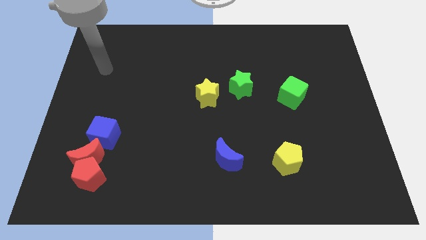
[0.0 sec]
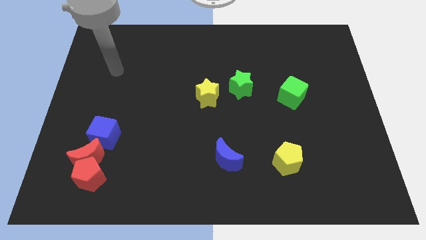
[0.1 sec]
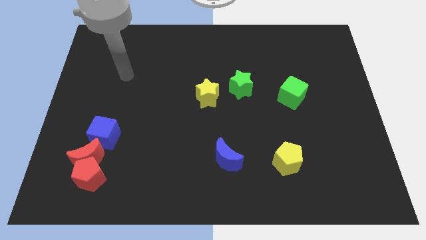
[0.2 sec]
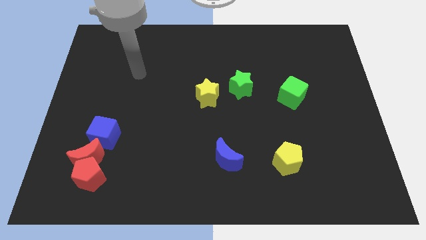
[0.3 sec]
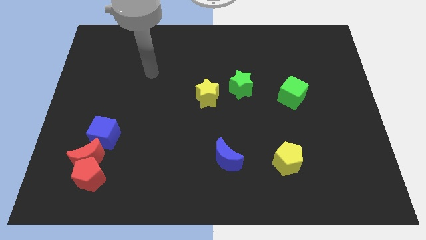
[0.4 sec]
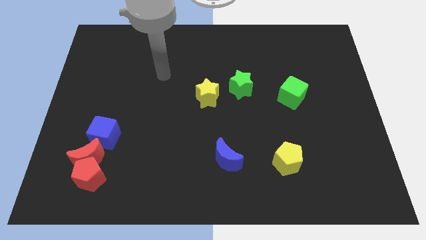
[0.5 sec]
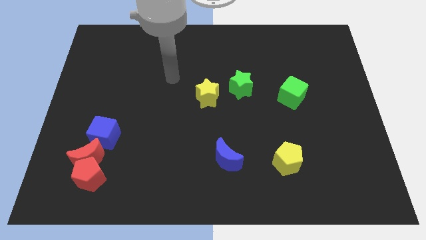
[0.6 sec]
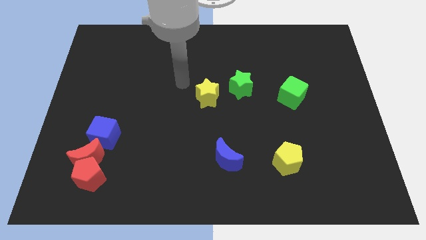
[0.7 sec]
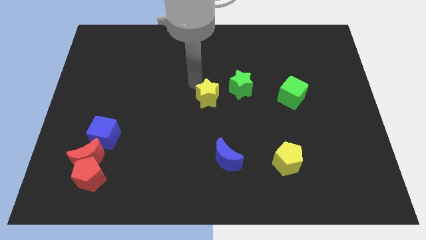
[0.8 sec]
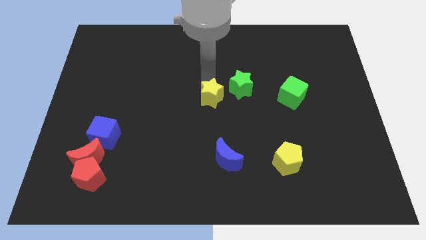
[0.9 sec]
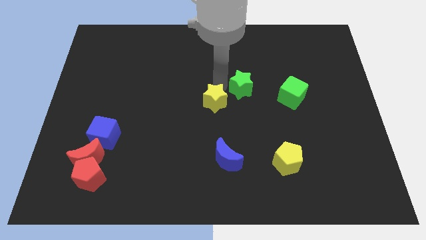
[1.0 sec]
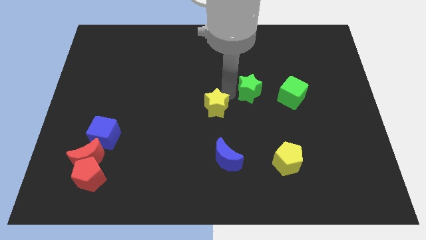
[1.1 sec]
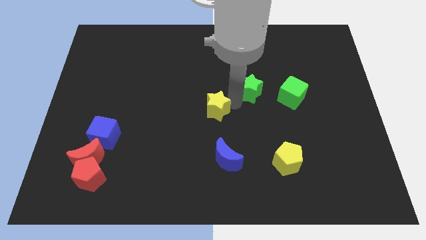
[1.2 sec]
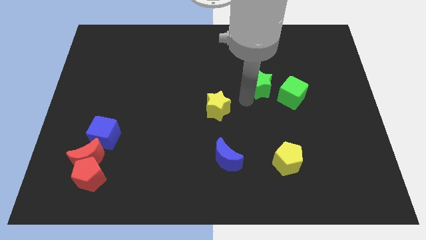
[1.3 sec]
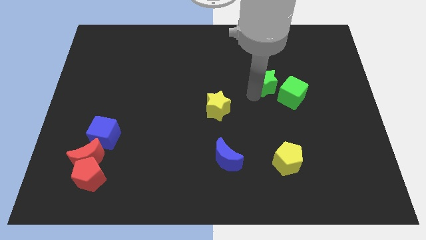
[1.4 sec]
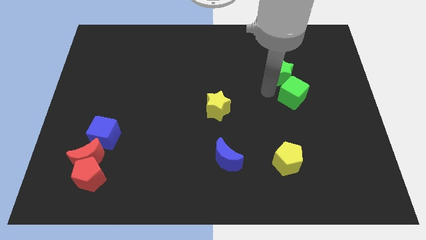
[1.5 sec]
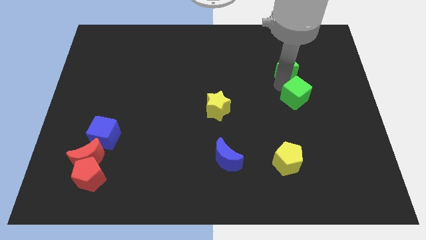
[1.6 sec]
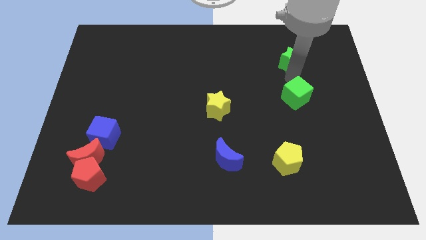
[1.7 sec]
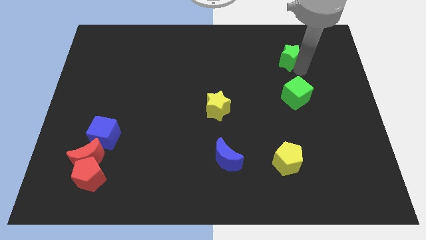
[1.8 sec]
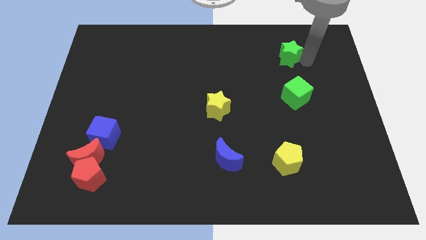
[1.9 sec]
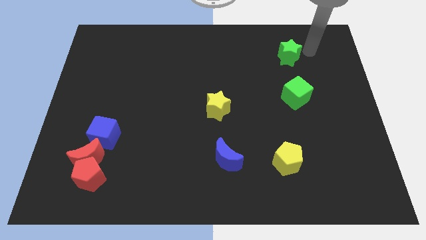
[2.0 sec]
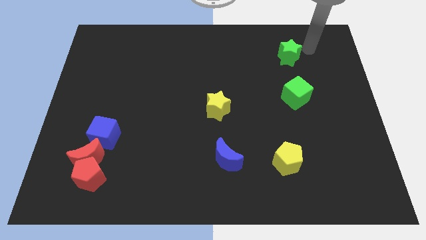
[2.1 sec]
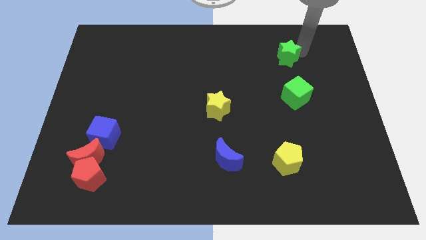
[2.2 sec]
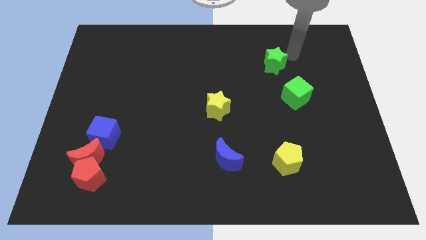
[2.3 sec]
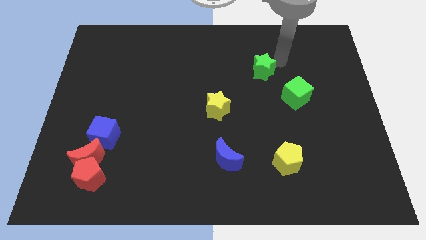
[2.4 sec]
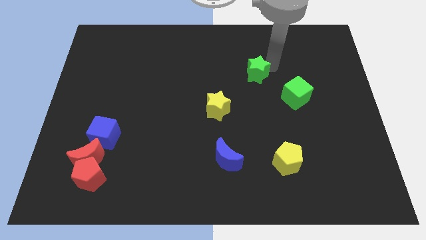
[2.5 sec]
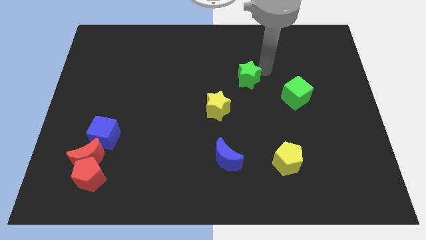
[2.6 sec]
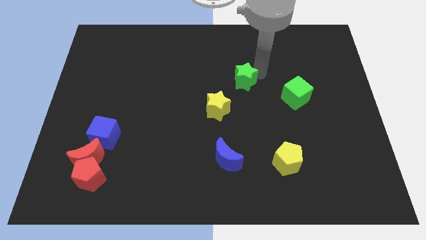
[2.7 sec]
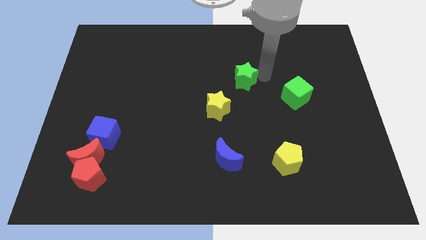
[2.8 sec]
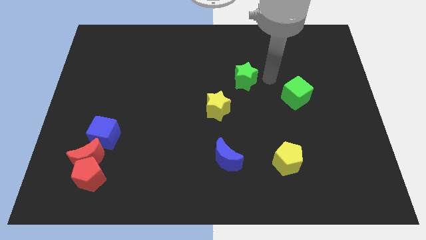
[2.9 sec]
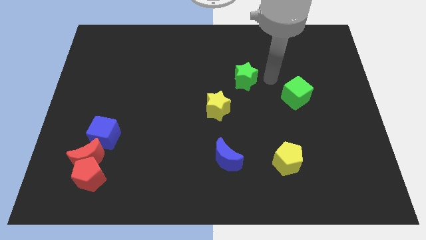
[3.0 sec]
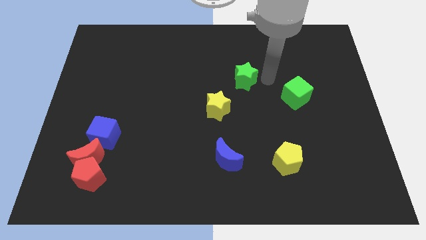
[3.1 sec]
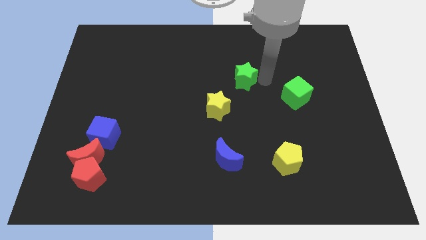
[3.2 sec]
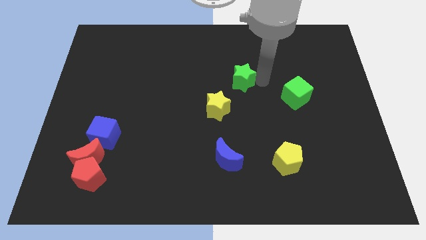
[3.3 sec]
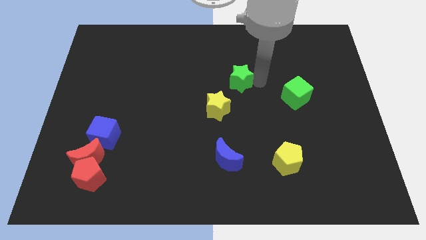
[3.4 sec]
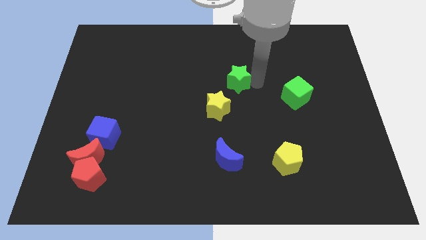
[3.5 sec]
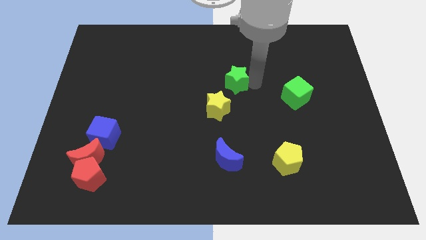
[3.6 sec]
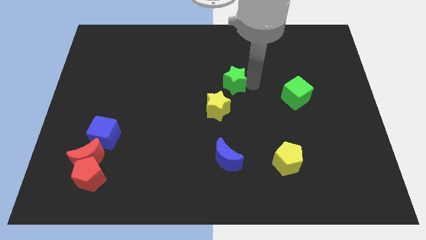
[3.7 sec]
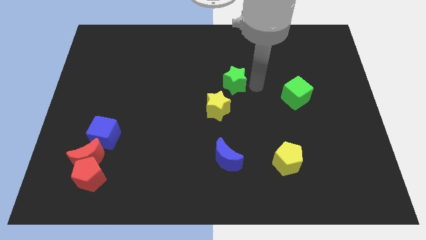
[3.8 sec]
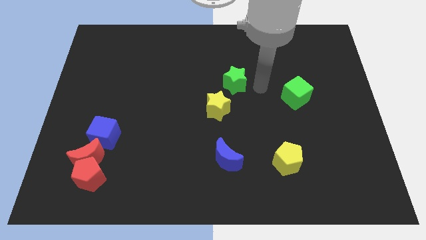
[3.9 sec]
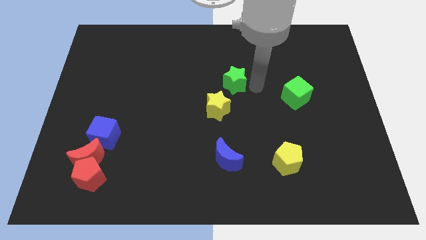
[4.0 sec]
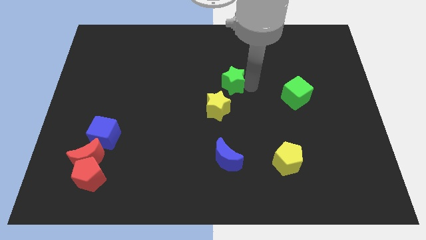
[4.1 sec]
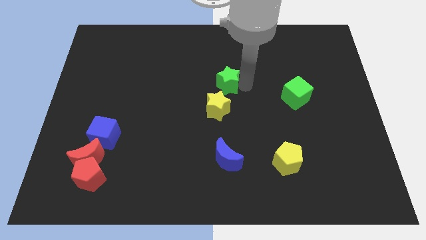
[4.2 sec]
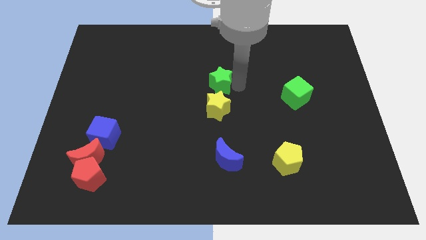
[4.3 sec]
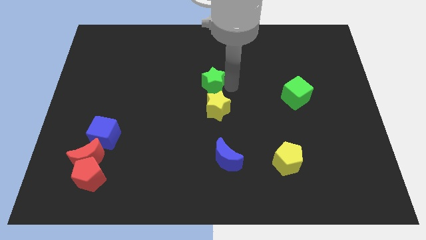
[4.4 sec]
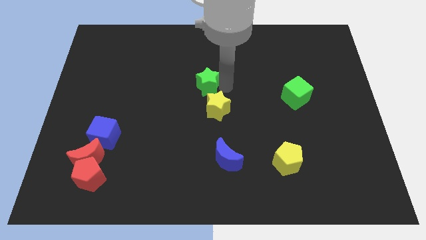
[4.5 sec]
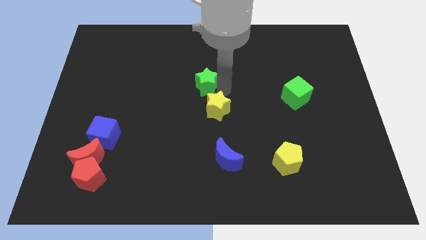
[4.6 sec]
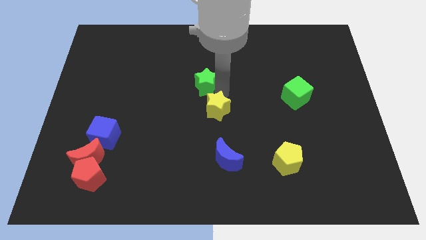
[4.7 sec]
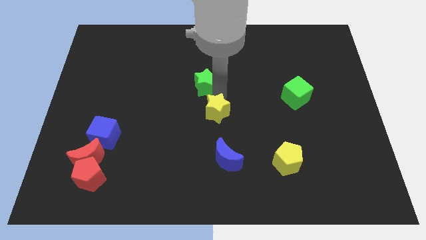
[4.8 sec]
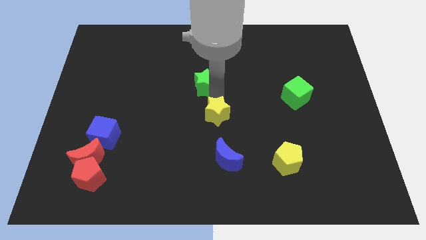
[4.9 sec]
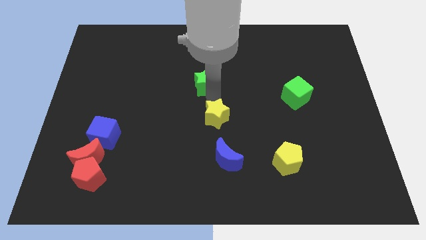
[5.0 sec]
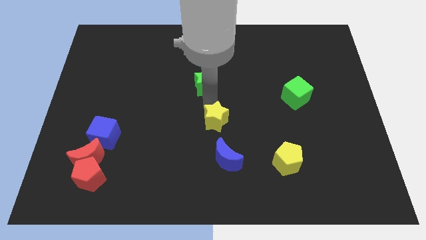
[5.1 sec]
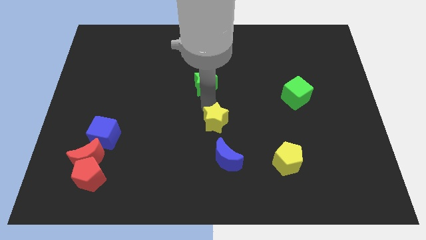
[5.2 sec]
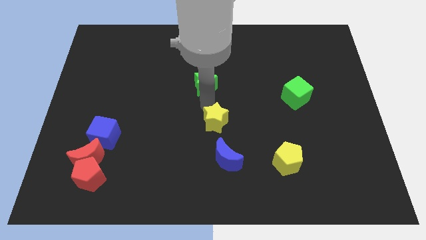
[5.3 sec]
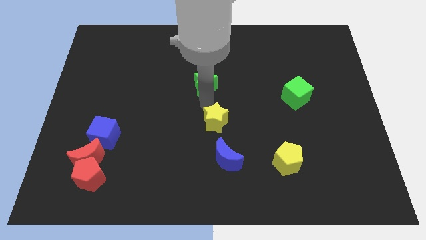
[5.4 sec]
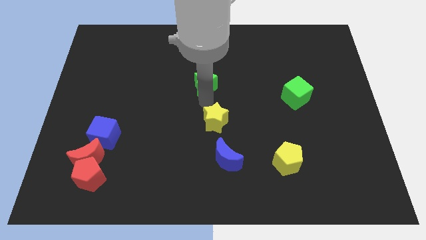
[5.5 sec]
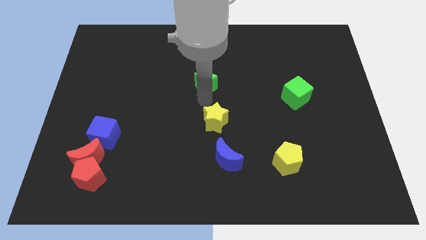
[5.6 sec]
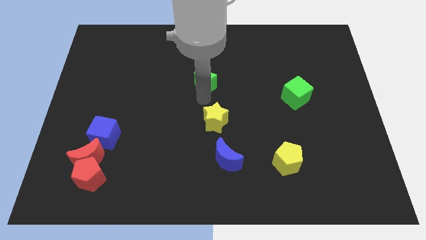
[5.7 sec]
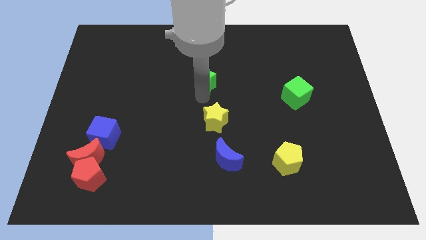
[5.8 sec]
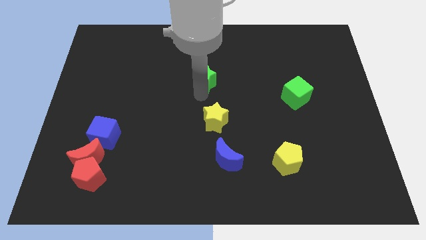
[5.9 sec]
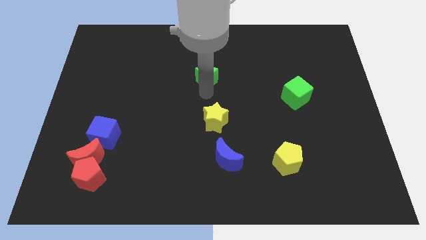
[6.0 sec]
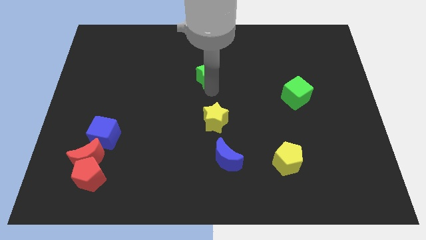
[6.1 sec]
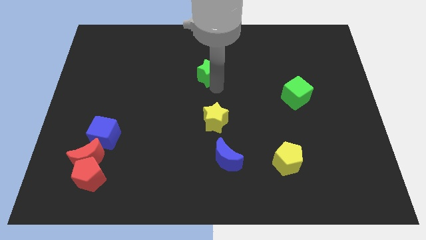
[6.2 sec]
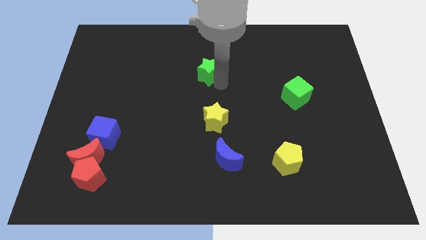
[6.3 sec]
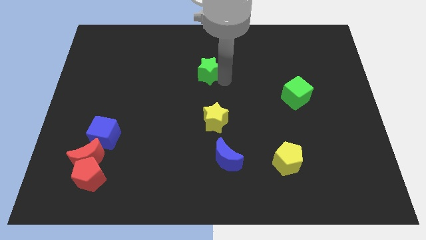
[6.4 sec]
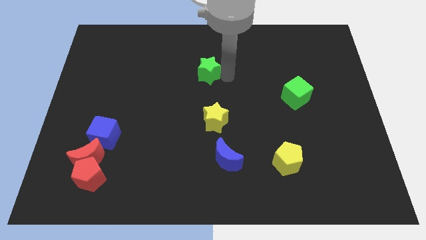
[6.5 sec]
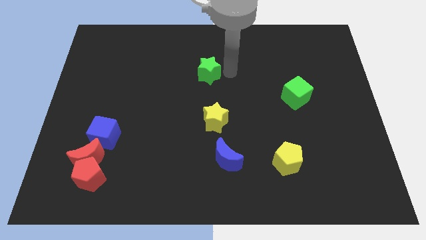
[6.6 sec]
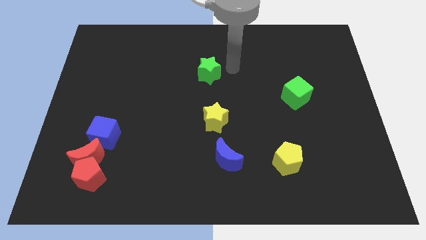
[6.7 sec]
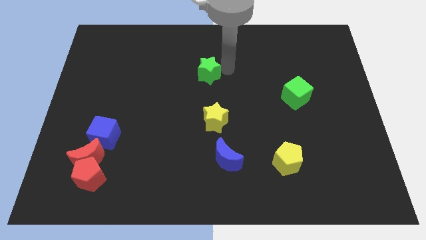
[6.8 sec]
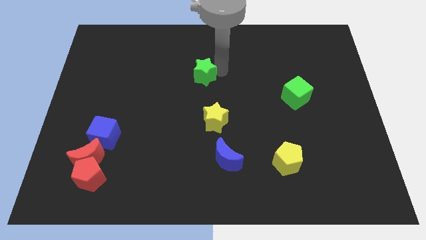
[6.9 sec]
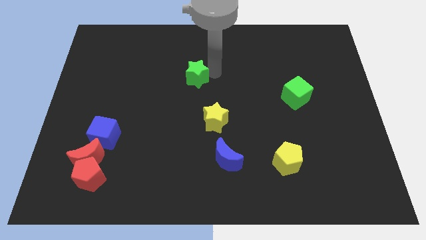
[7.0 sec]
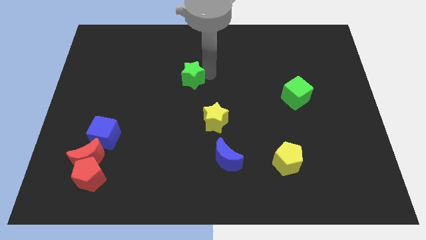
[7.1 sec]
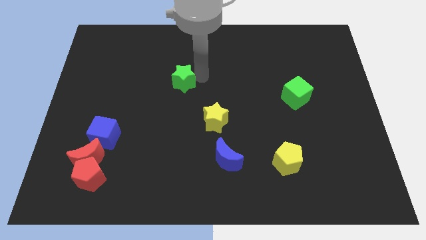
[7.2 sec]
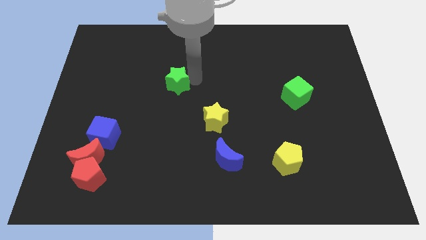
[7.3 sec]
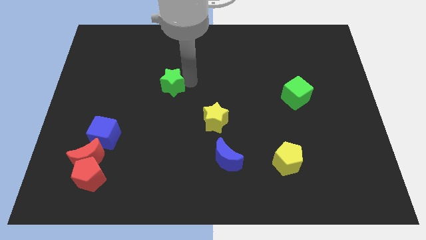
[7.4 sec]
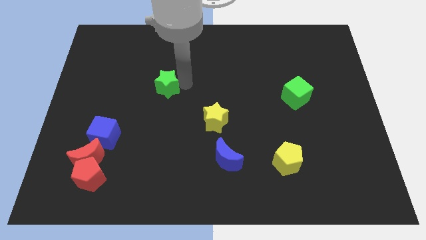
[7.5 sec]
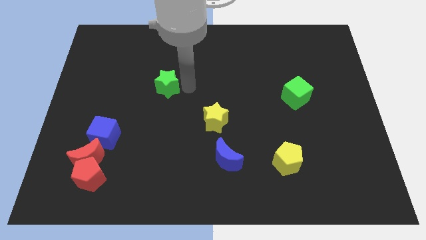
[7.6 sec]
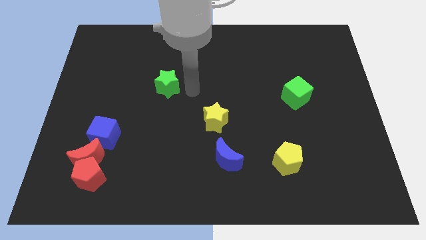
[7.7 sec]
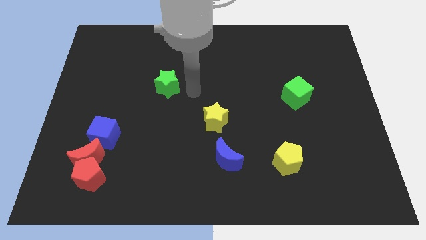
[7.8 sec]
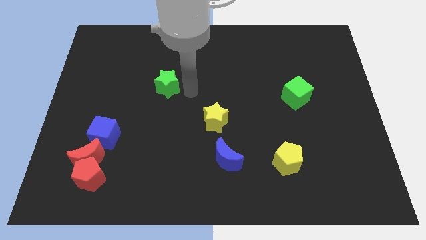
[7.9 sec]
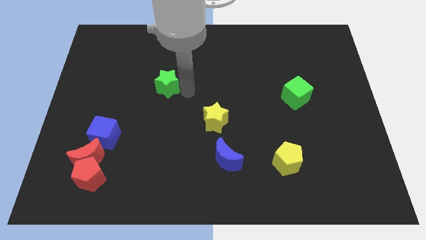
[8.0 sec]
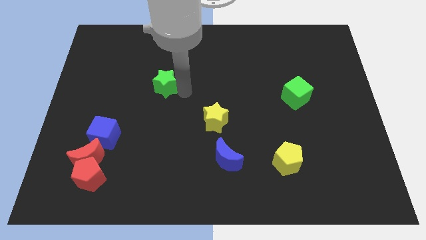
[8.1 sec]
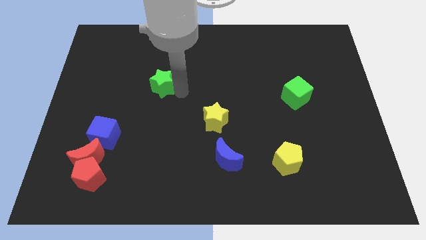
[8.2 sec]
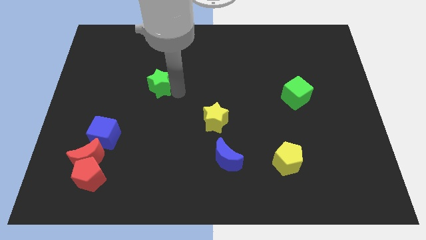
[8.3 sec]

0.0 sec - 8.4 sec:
slide the green star to the left
